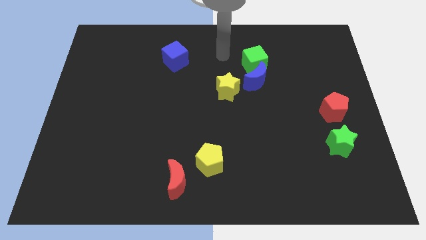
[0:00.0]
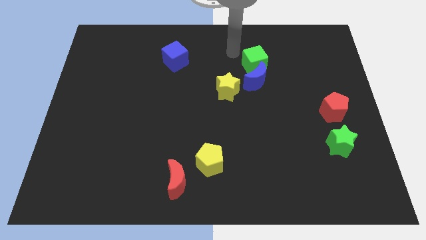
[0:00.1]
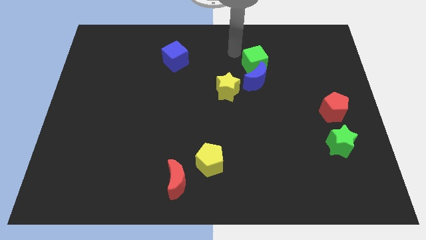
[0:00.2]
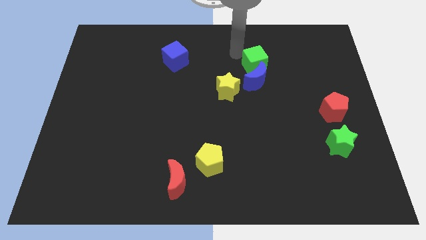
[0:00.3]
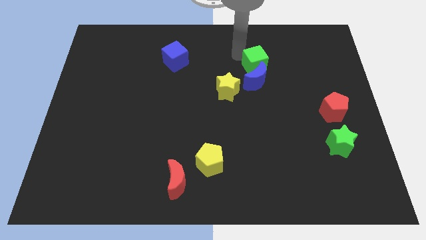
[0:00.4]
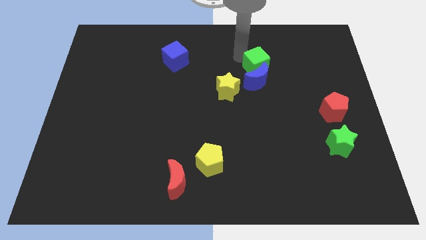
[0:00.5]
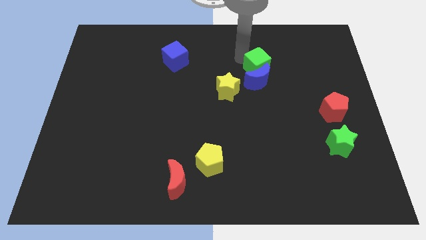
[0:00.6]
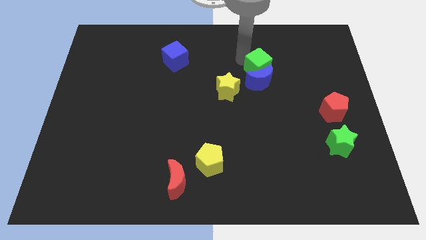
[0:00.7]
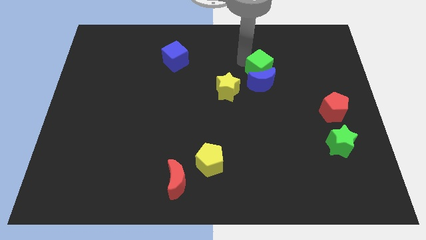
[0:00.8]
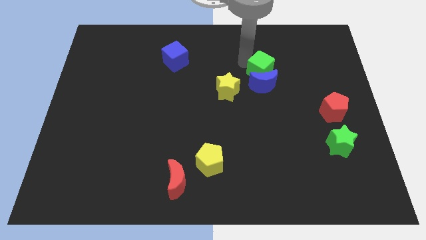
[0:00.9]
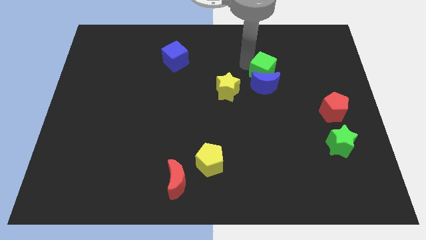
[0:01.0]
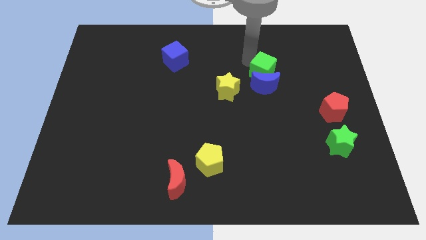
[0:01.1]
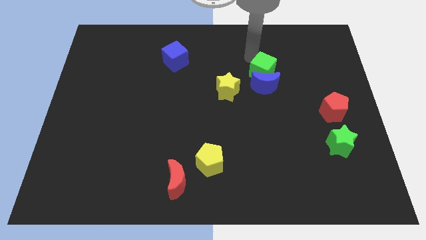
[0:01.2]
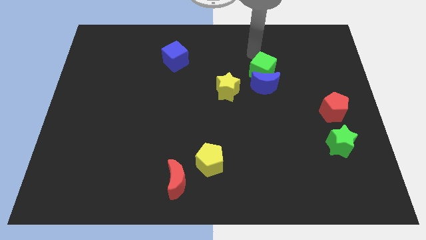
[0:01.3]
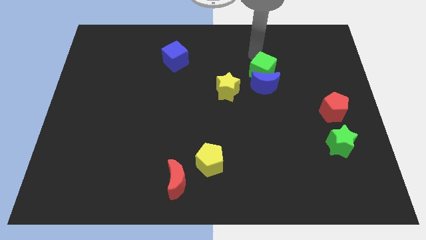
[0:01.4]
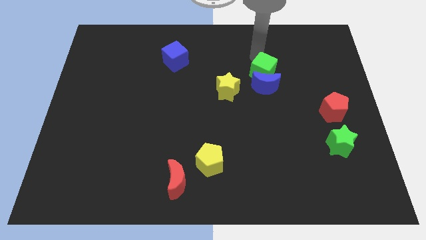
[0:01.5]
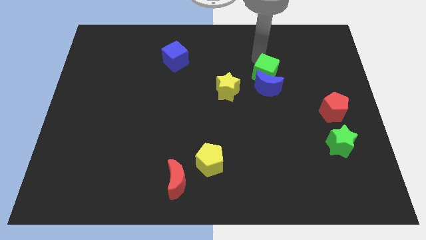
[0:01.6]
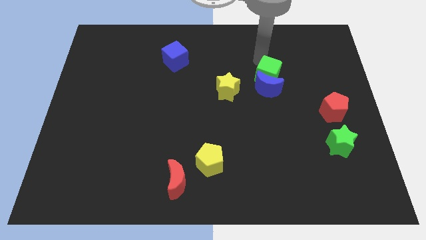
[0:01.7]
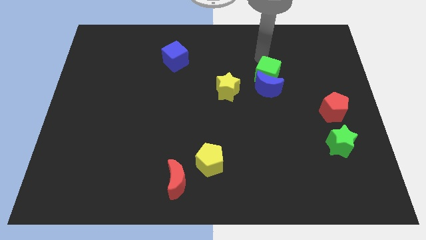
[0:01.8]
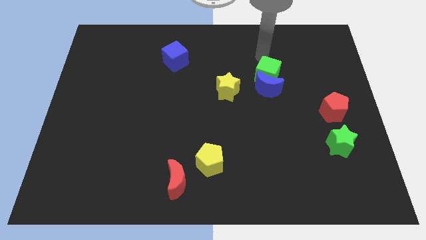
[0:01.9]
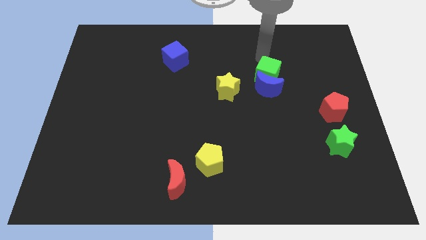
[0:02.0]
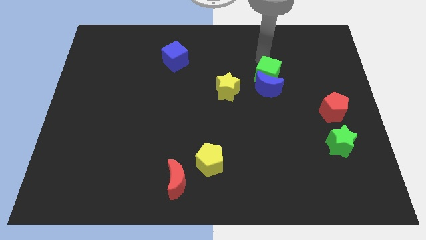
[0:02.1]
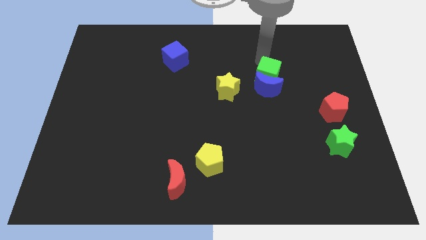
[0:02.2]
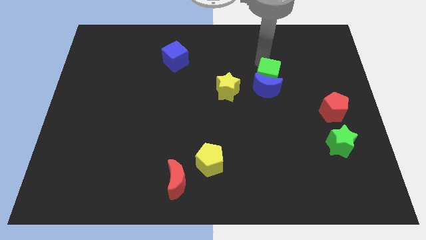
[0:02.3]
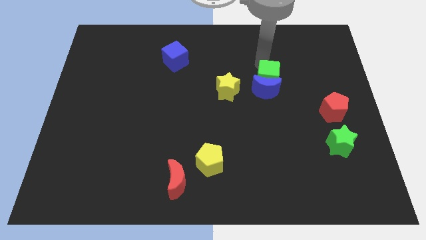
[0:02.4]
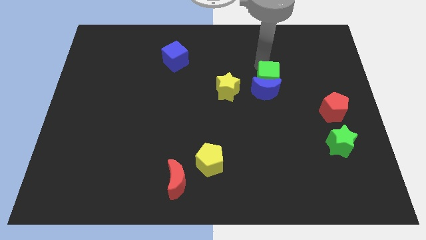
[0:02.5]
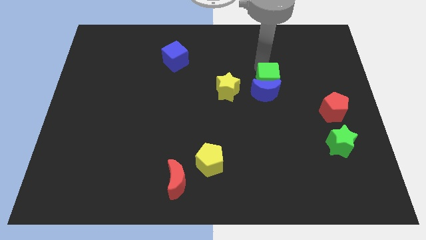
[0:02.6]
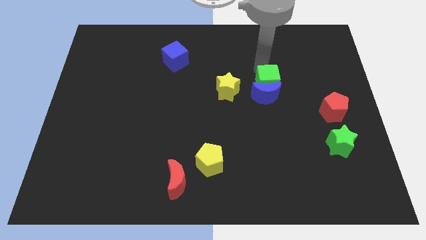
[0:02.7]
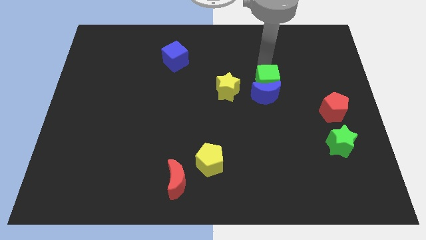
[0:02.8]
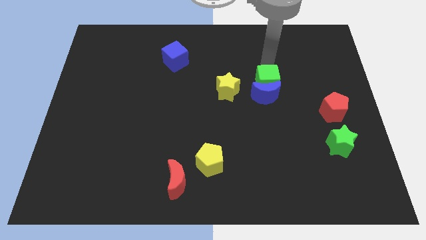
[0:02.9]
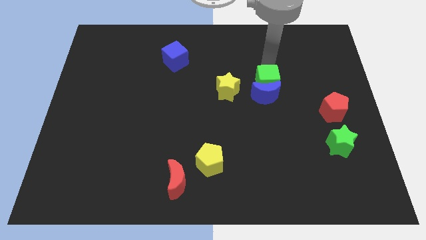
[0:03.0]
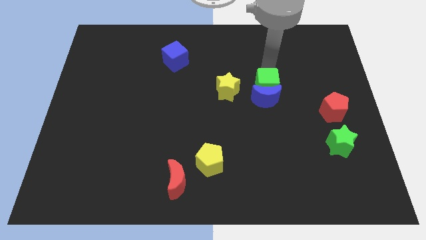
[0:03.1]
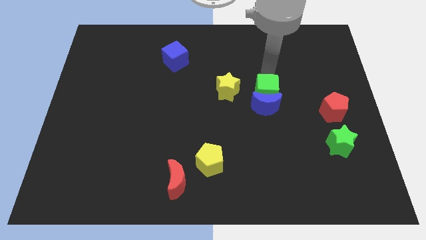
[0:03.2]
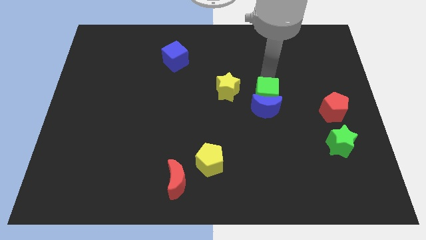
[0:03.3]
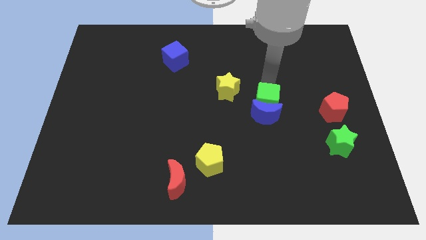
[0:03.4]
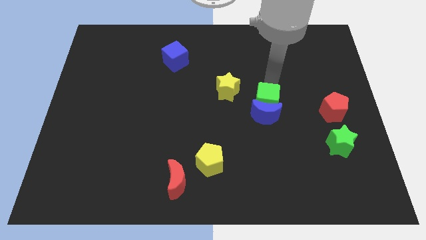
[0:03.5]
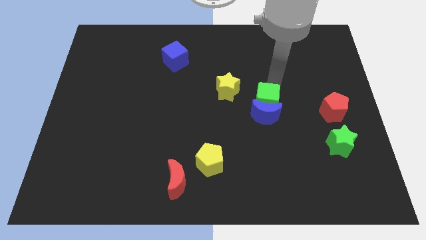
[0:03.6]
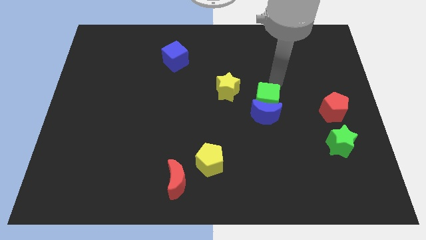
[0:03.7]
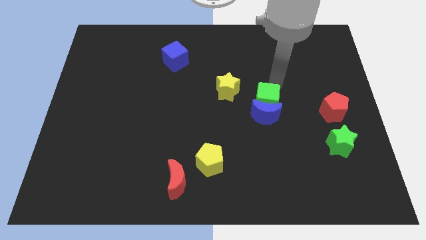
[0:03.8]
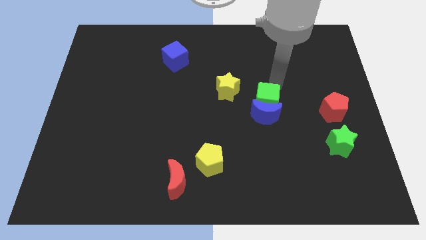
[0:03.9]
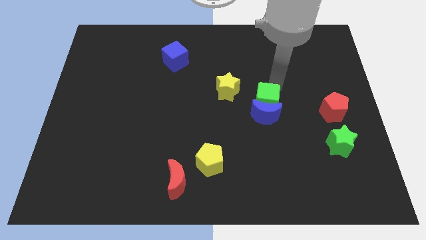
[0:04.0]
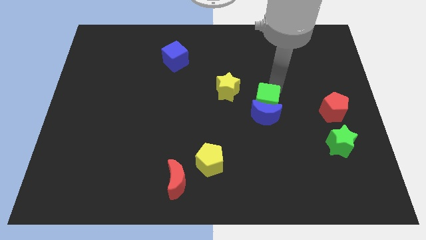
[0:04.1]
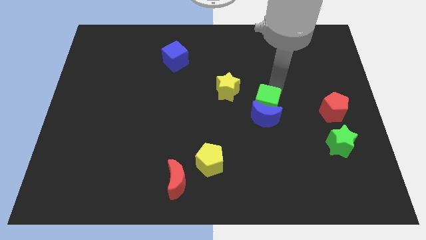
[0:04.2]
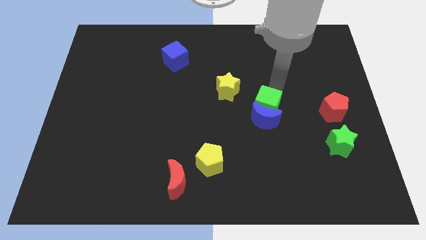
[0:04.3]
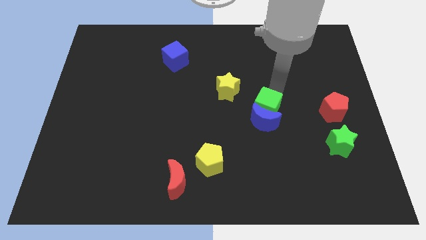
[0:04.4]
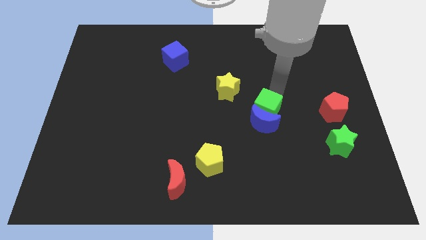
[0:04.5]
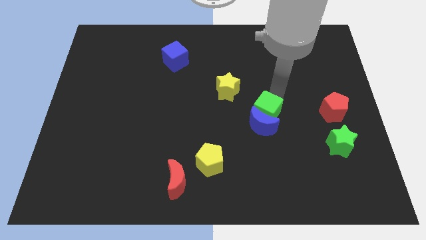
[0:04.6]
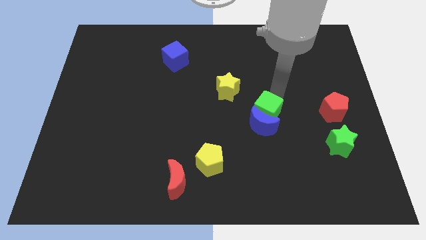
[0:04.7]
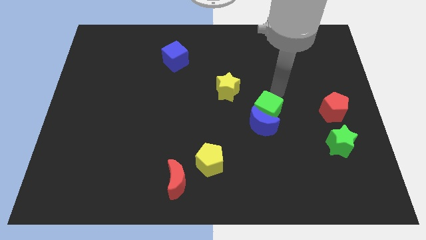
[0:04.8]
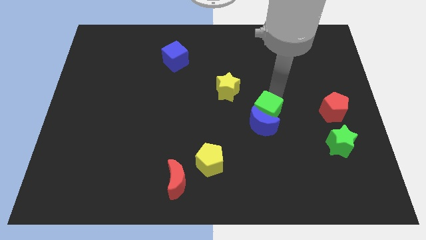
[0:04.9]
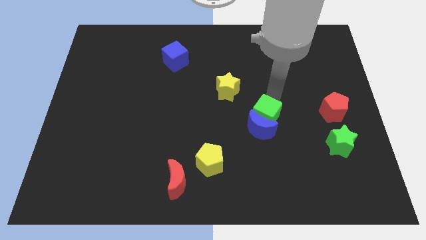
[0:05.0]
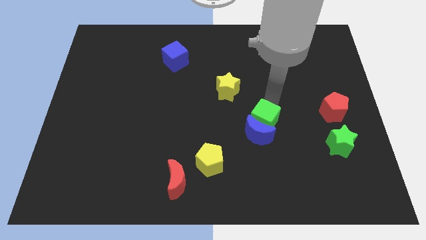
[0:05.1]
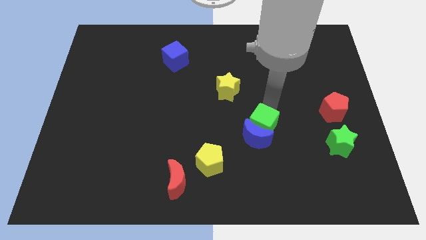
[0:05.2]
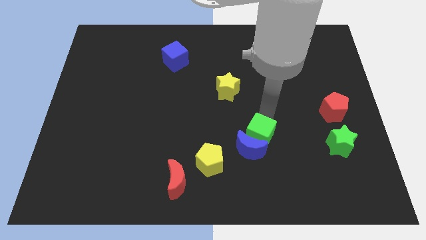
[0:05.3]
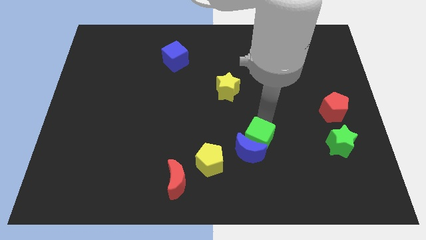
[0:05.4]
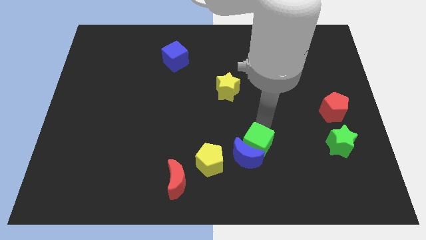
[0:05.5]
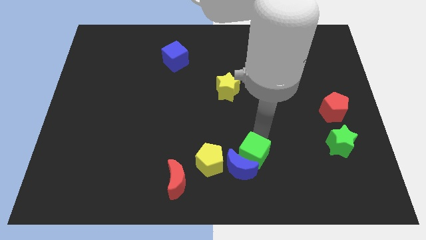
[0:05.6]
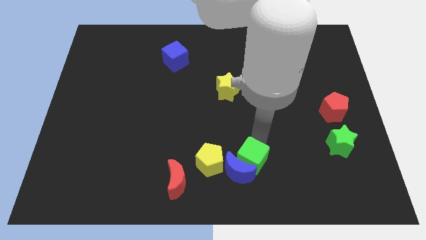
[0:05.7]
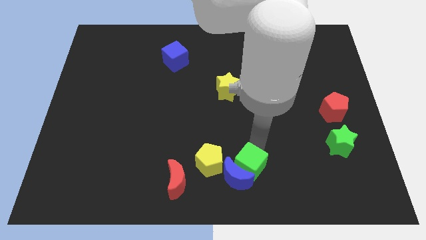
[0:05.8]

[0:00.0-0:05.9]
move the green cube to the bottom side
